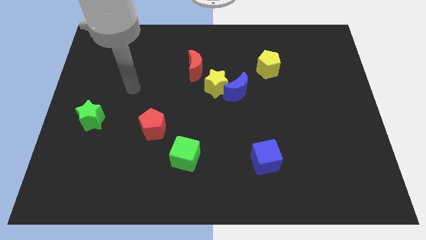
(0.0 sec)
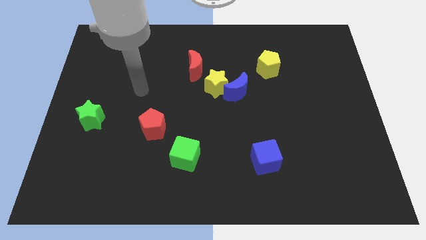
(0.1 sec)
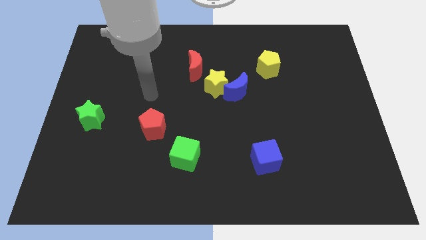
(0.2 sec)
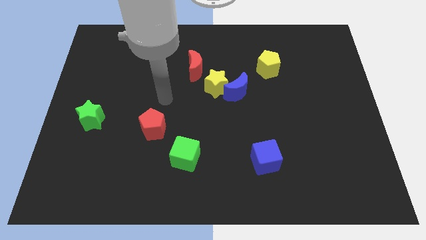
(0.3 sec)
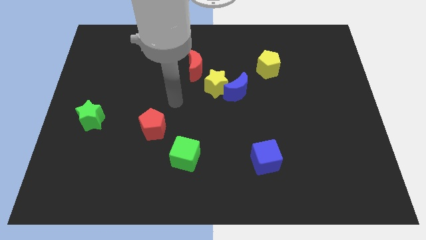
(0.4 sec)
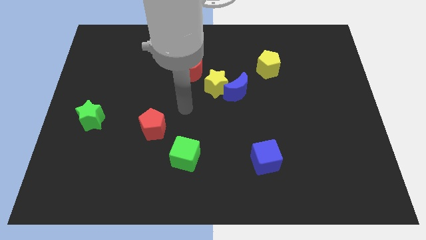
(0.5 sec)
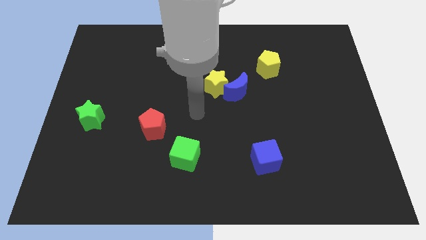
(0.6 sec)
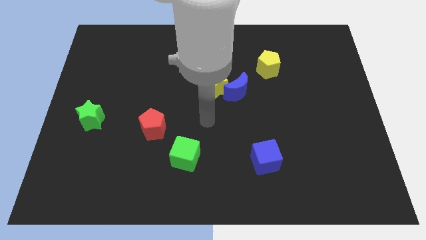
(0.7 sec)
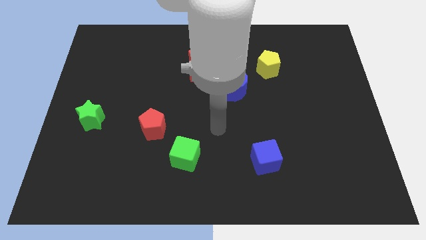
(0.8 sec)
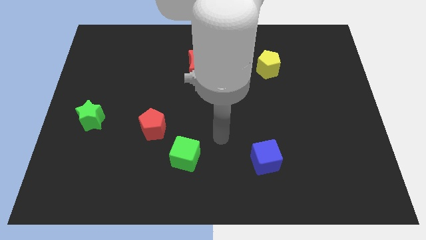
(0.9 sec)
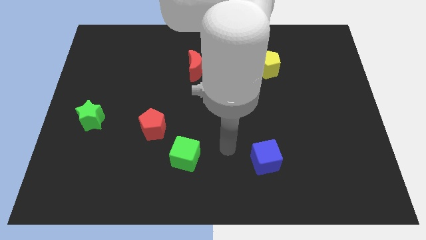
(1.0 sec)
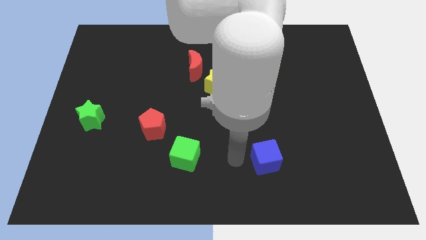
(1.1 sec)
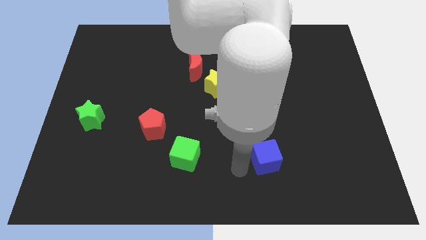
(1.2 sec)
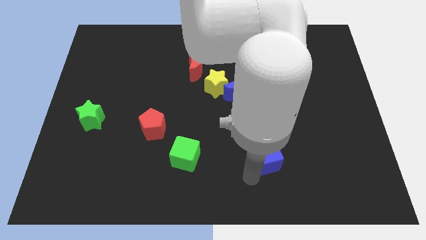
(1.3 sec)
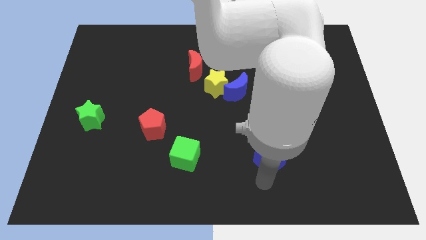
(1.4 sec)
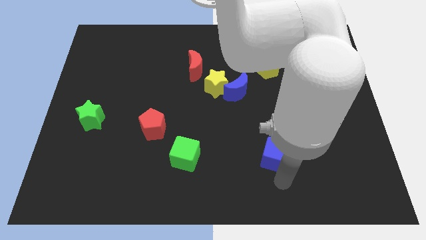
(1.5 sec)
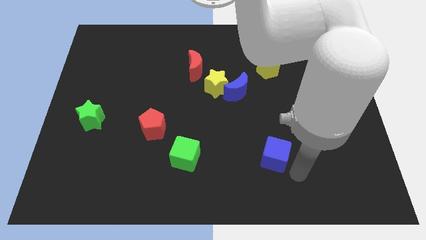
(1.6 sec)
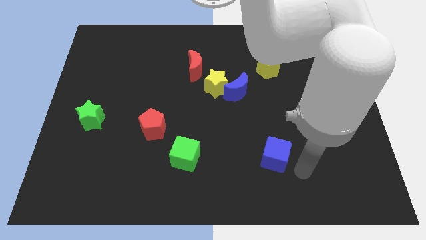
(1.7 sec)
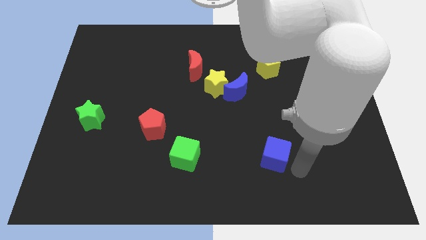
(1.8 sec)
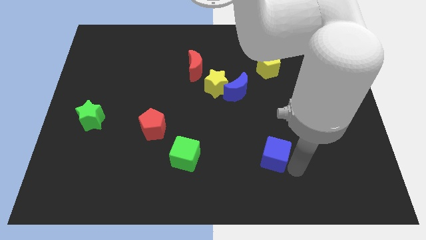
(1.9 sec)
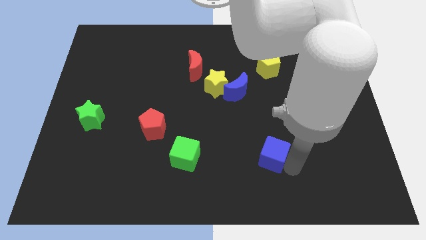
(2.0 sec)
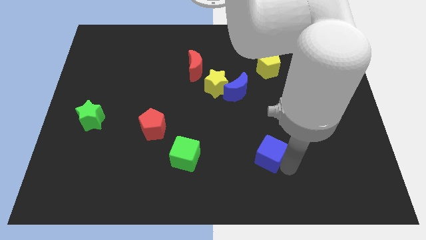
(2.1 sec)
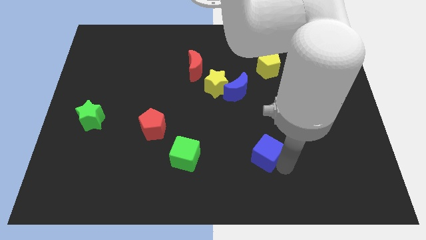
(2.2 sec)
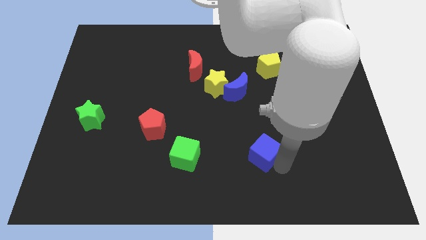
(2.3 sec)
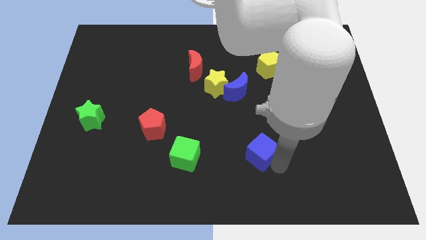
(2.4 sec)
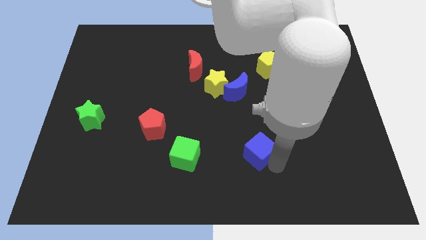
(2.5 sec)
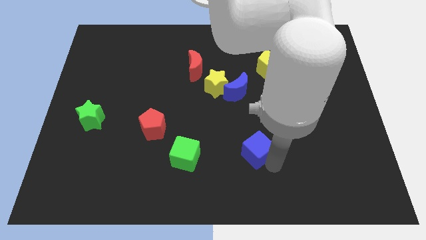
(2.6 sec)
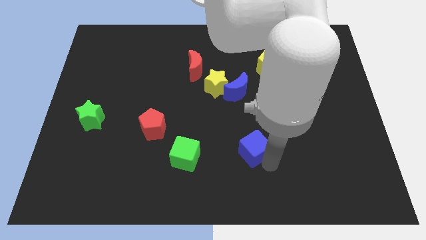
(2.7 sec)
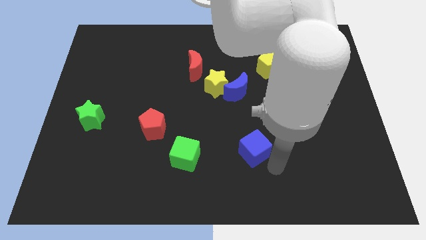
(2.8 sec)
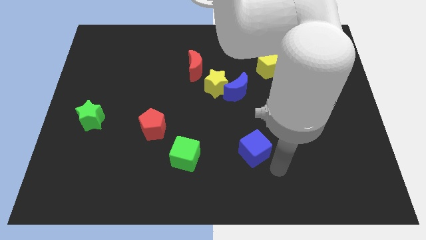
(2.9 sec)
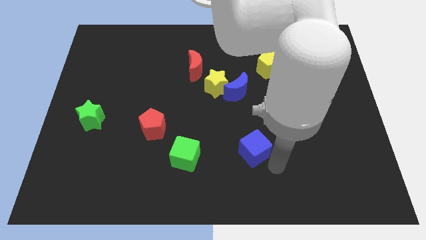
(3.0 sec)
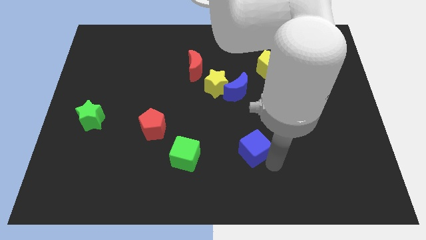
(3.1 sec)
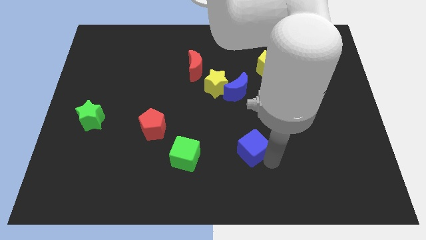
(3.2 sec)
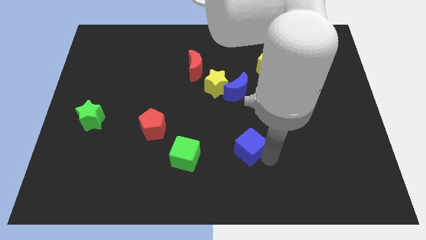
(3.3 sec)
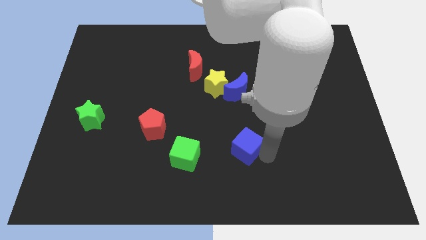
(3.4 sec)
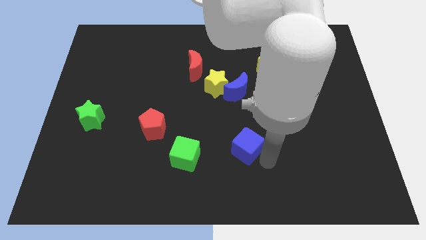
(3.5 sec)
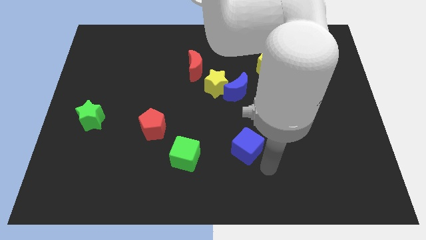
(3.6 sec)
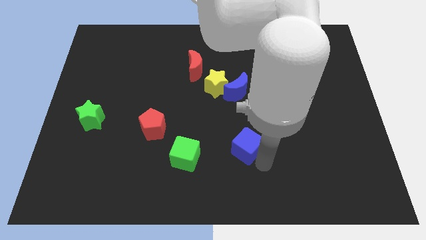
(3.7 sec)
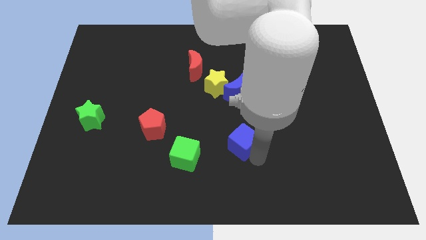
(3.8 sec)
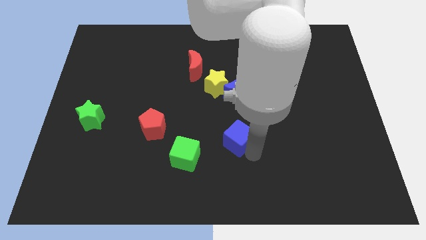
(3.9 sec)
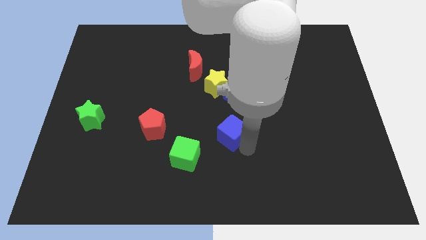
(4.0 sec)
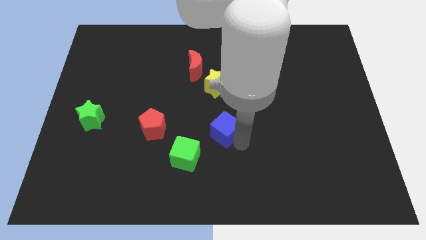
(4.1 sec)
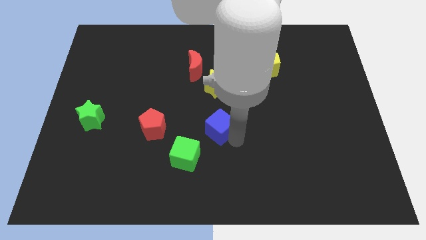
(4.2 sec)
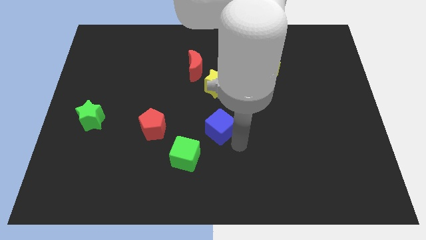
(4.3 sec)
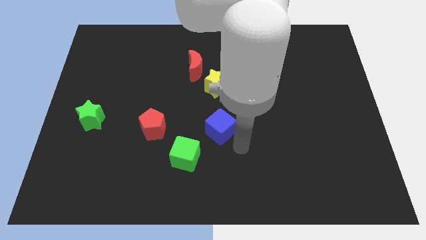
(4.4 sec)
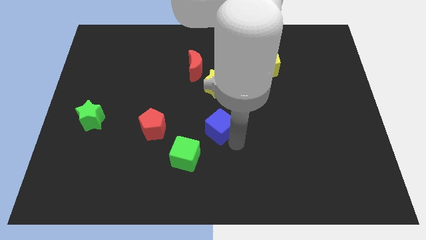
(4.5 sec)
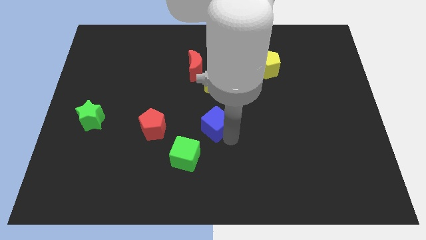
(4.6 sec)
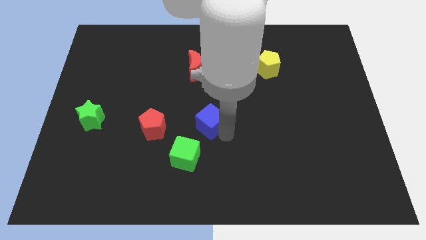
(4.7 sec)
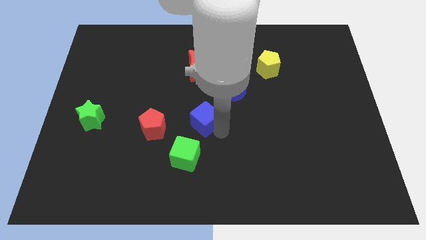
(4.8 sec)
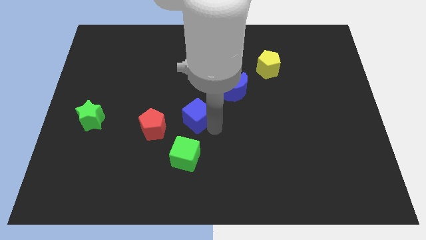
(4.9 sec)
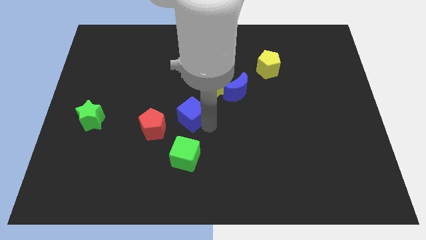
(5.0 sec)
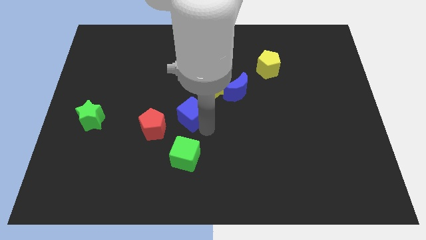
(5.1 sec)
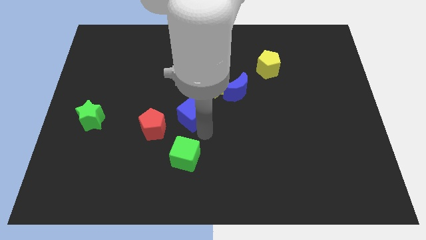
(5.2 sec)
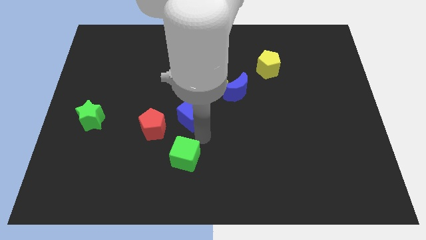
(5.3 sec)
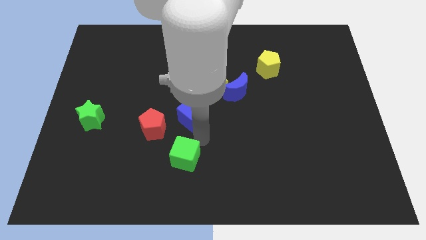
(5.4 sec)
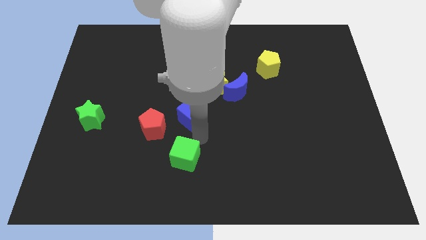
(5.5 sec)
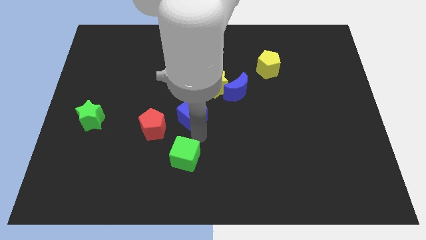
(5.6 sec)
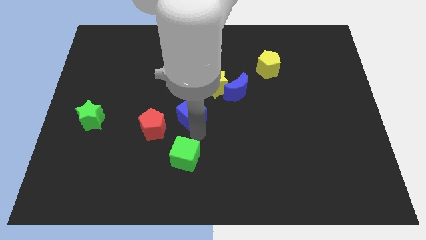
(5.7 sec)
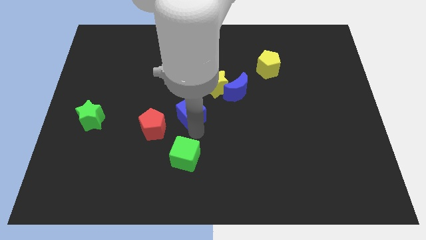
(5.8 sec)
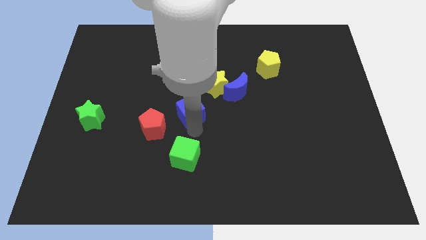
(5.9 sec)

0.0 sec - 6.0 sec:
move the blue cube upwards and to the left diagonally

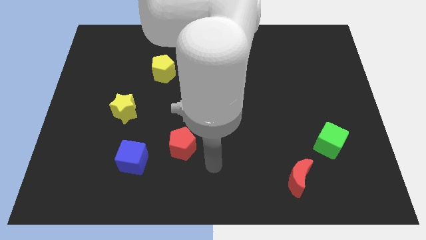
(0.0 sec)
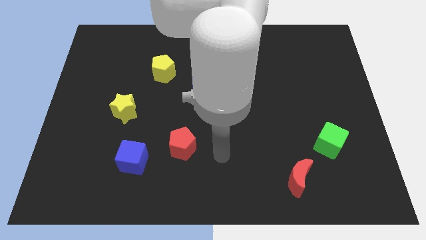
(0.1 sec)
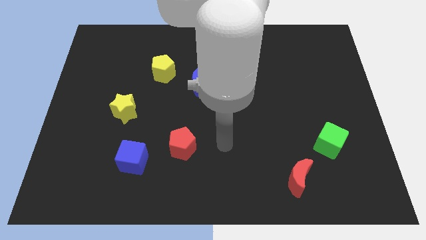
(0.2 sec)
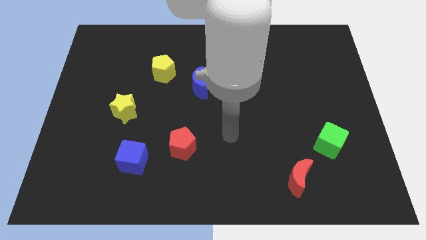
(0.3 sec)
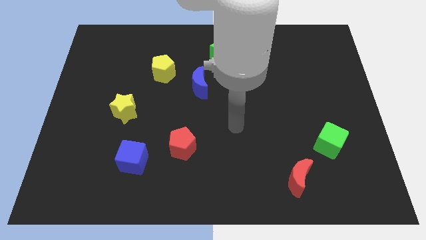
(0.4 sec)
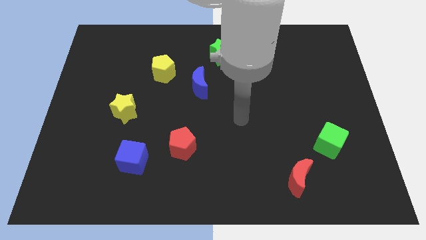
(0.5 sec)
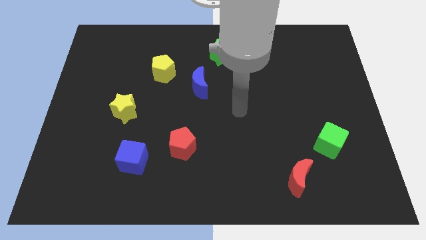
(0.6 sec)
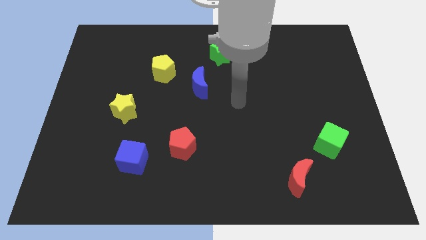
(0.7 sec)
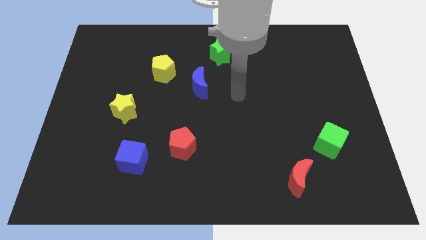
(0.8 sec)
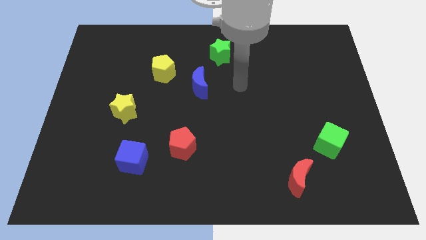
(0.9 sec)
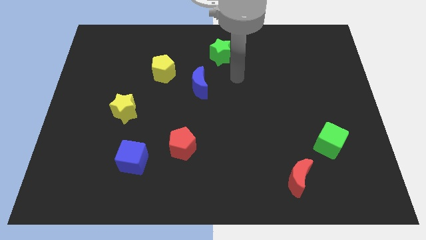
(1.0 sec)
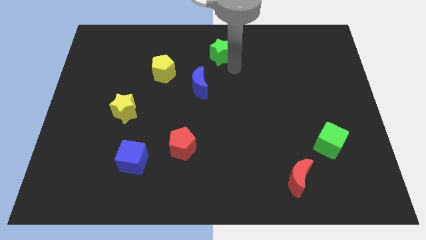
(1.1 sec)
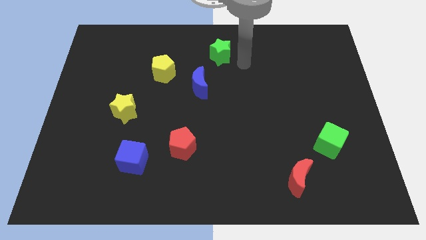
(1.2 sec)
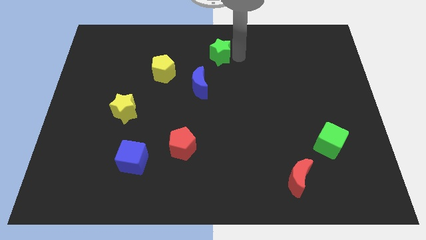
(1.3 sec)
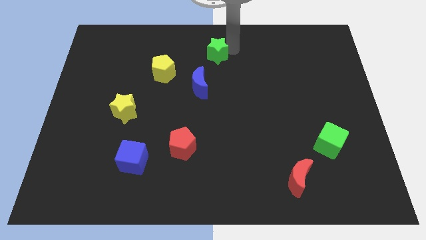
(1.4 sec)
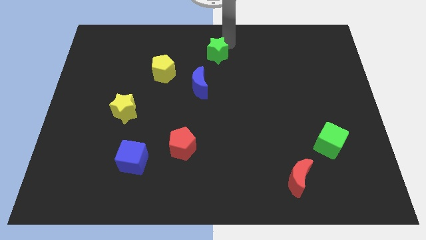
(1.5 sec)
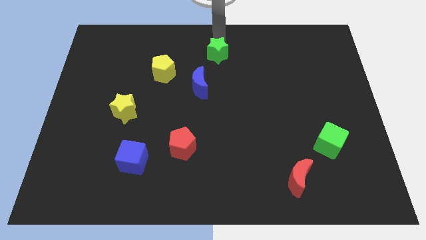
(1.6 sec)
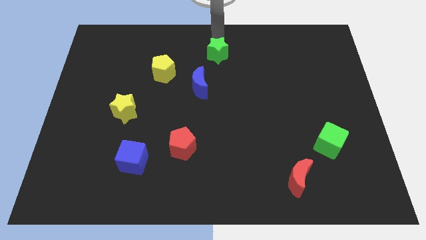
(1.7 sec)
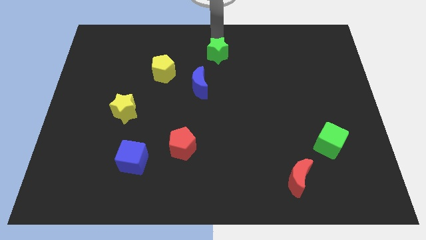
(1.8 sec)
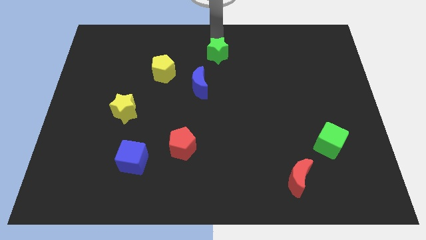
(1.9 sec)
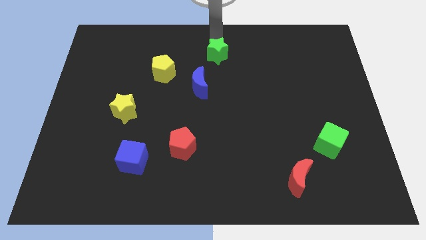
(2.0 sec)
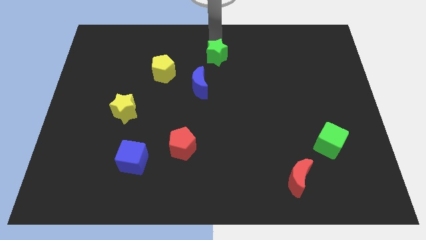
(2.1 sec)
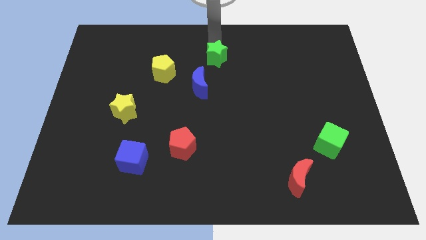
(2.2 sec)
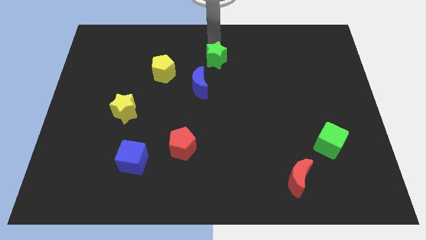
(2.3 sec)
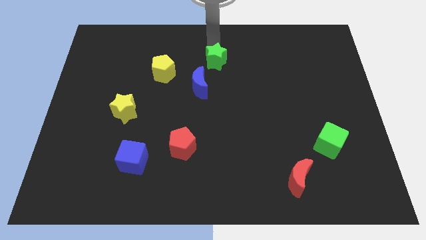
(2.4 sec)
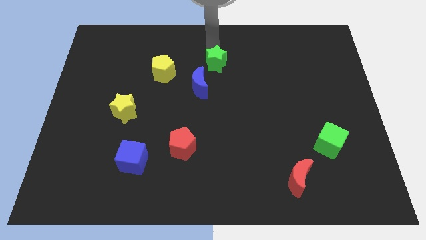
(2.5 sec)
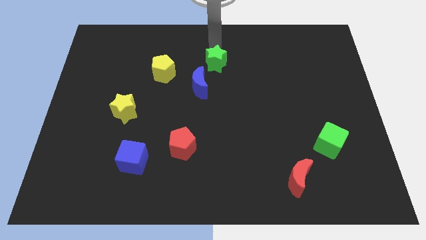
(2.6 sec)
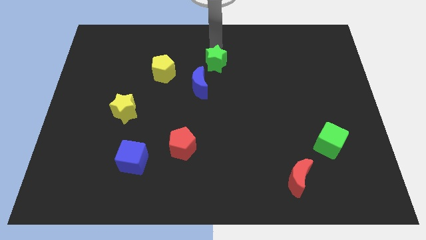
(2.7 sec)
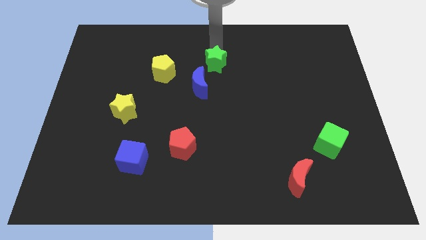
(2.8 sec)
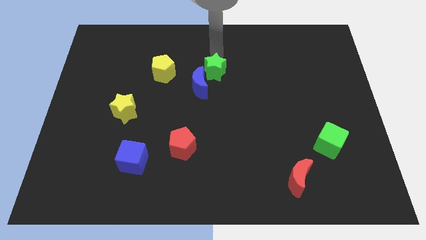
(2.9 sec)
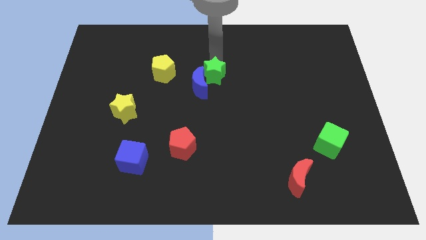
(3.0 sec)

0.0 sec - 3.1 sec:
push the green star a little bit downwards
